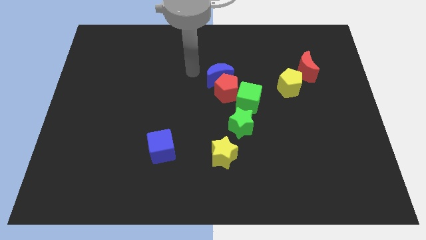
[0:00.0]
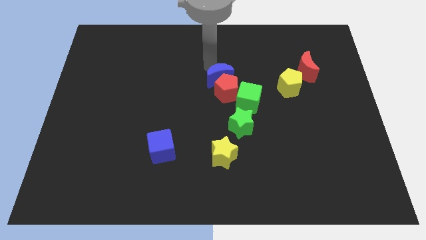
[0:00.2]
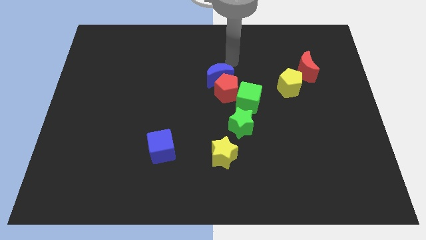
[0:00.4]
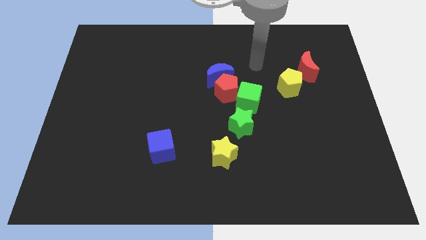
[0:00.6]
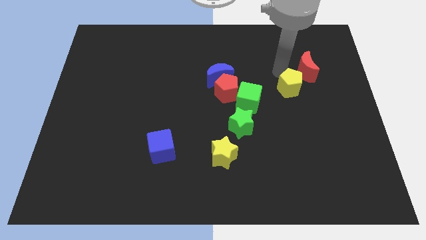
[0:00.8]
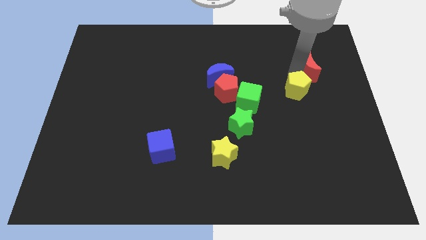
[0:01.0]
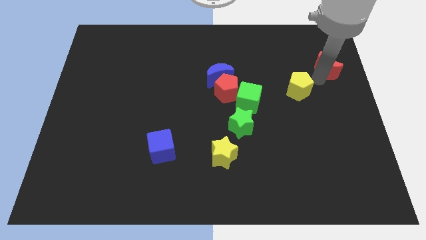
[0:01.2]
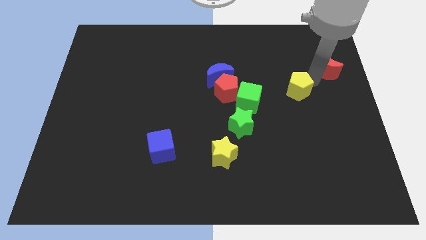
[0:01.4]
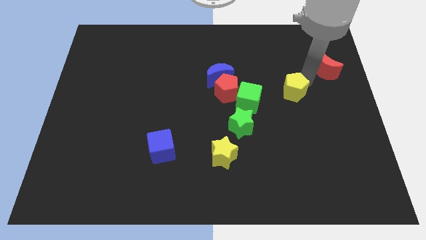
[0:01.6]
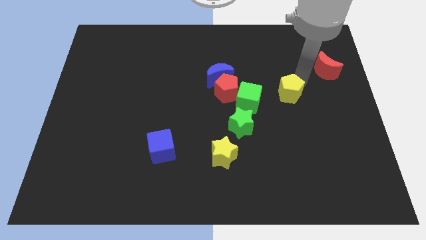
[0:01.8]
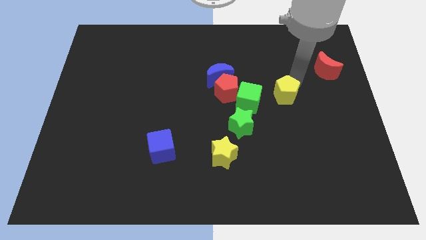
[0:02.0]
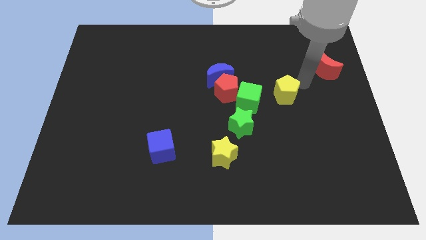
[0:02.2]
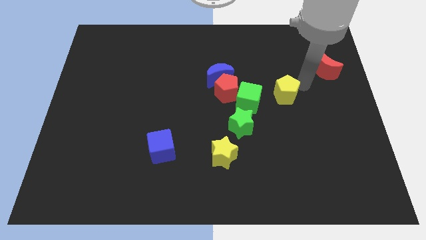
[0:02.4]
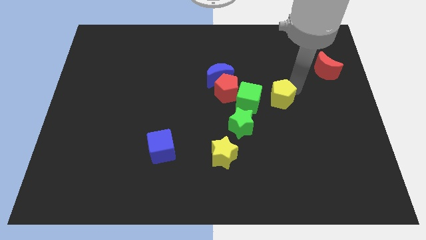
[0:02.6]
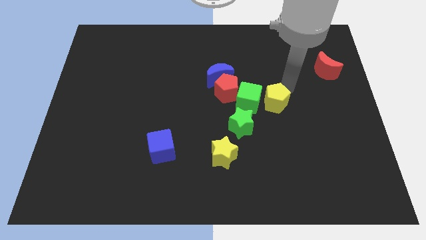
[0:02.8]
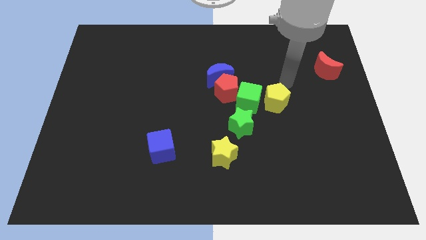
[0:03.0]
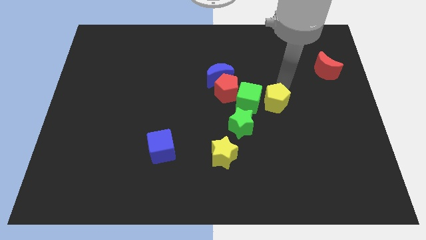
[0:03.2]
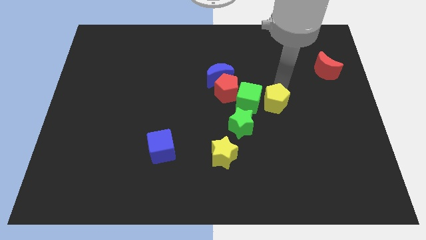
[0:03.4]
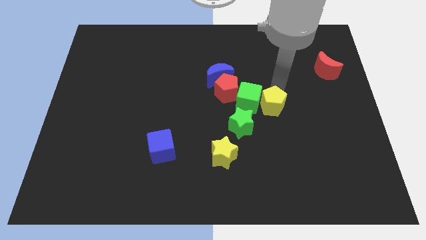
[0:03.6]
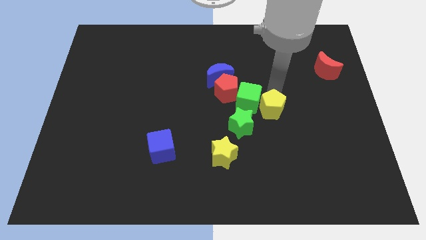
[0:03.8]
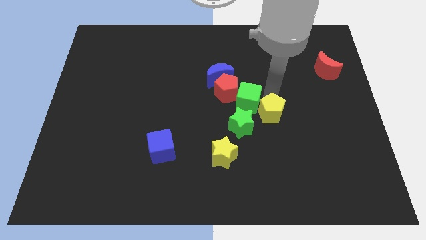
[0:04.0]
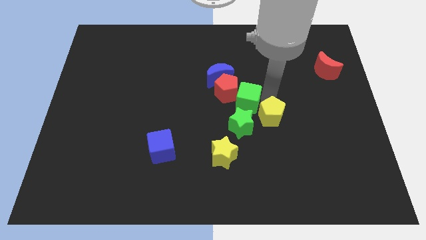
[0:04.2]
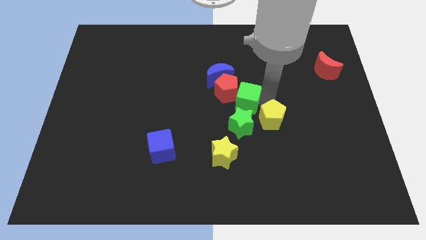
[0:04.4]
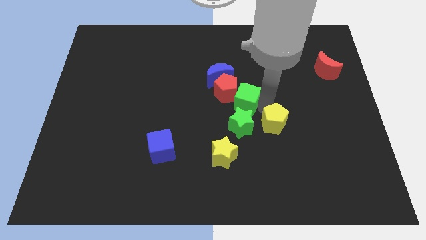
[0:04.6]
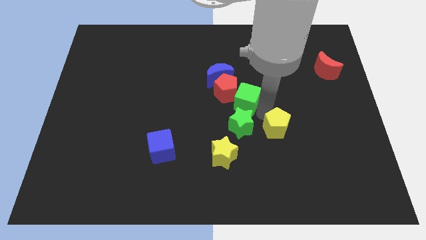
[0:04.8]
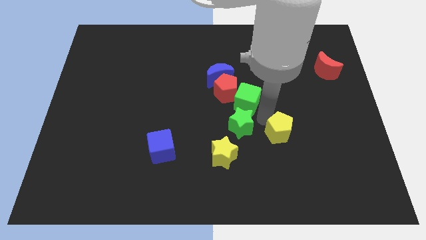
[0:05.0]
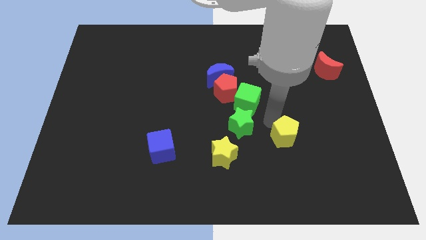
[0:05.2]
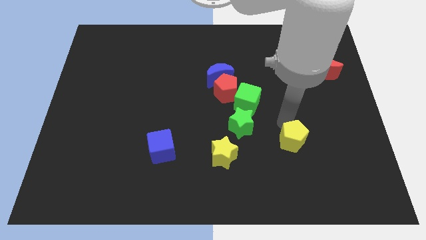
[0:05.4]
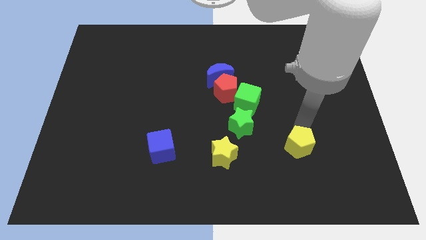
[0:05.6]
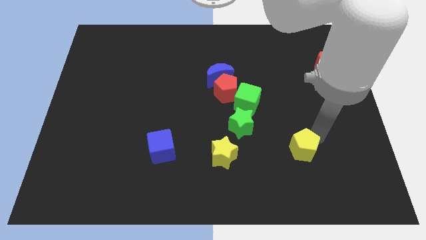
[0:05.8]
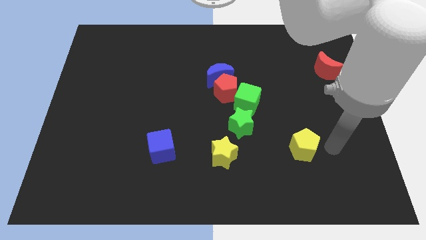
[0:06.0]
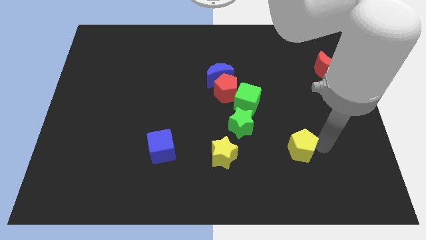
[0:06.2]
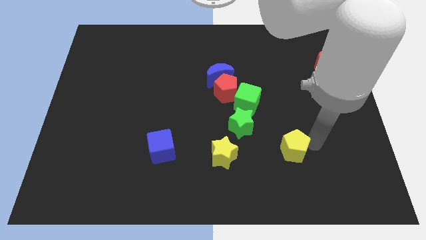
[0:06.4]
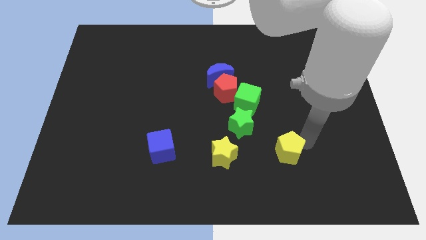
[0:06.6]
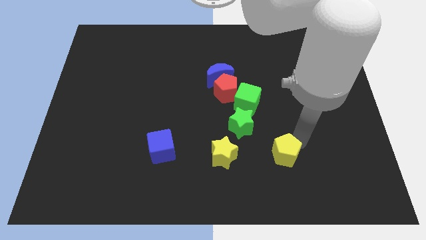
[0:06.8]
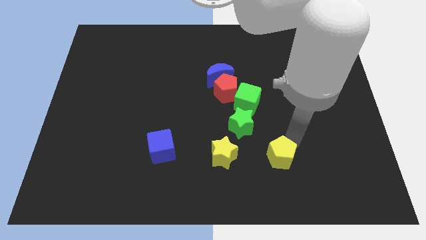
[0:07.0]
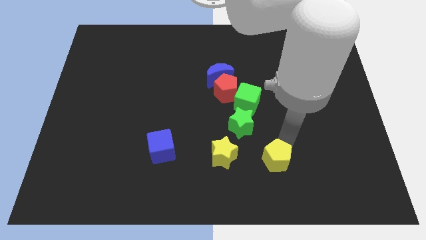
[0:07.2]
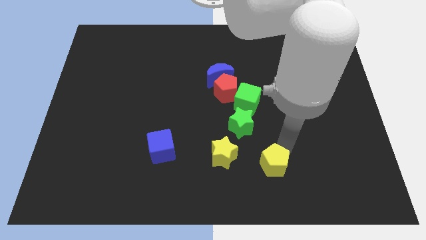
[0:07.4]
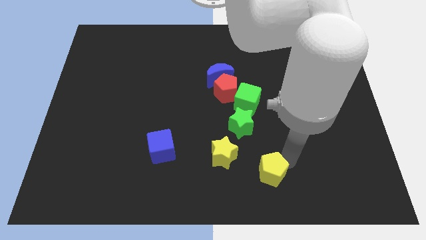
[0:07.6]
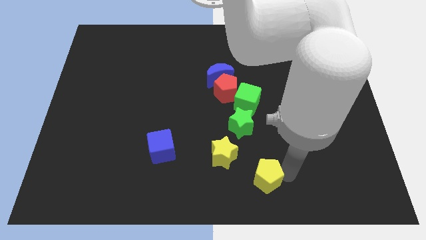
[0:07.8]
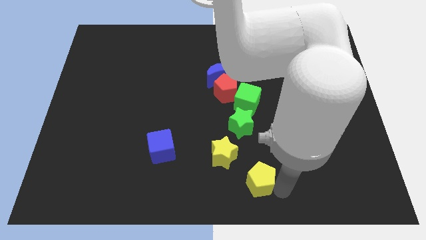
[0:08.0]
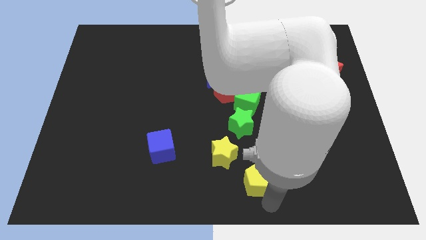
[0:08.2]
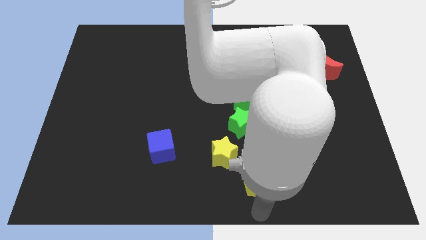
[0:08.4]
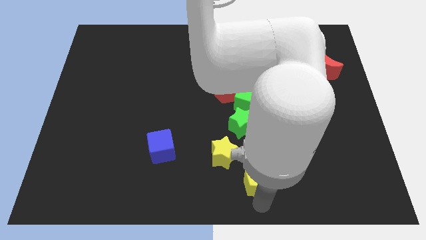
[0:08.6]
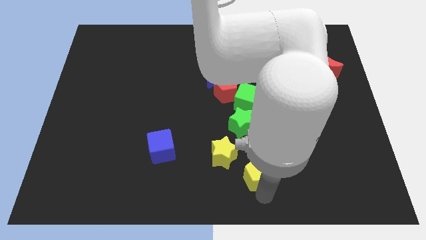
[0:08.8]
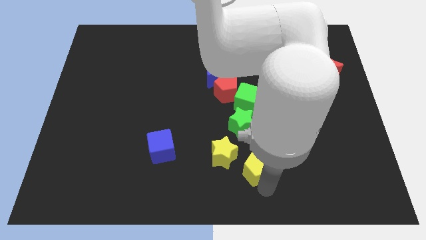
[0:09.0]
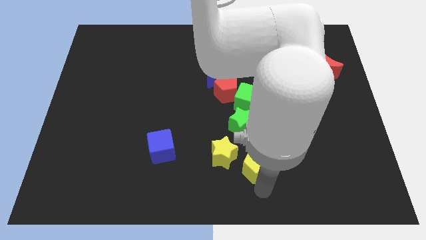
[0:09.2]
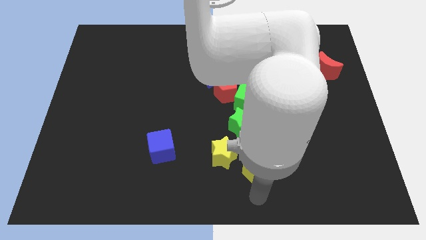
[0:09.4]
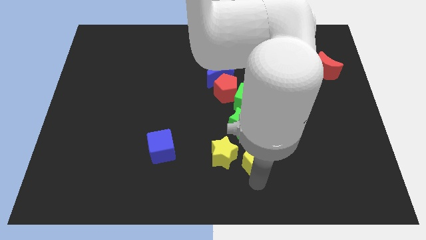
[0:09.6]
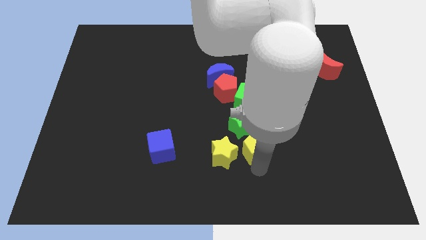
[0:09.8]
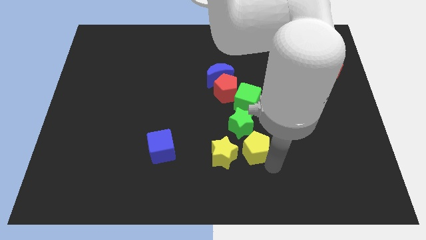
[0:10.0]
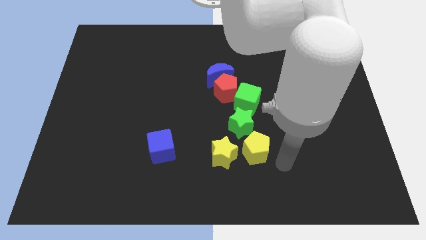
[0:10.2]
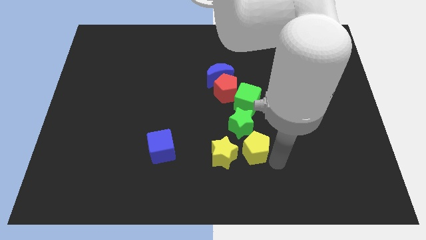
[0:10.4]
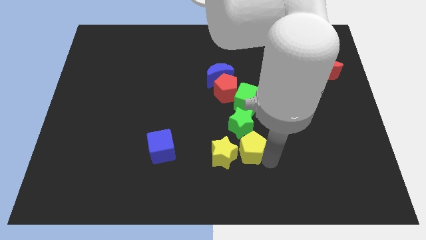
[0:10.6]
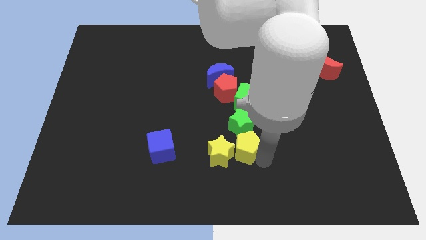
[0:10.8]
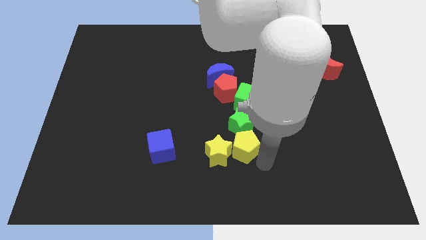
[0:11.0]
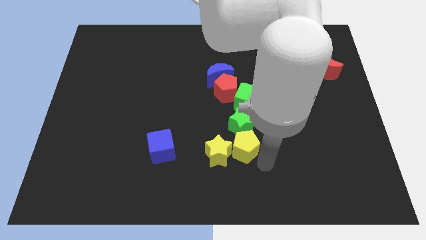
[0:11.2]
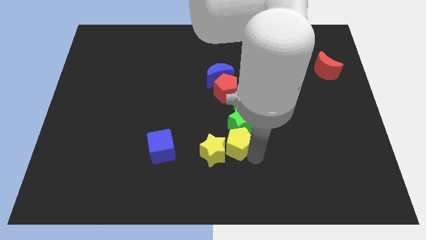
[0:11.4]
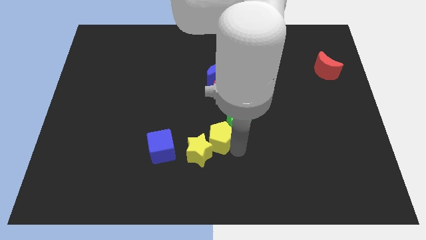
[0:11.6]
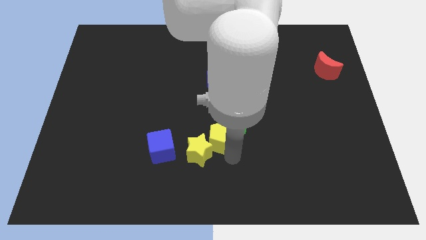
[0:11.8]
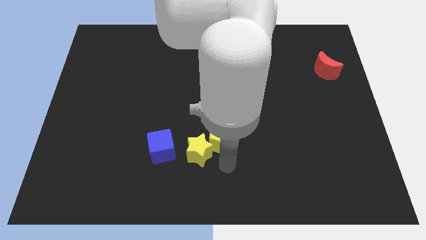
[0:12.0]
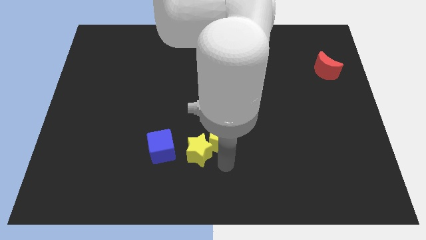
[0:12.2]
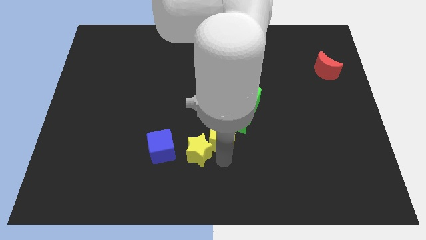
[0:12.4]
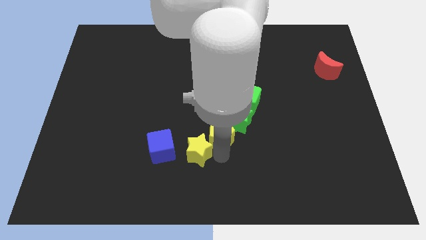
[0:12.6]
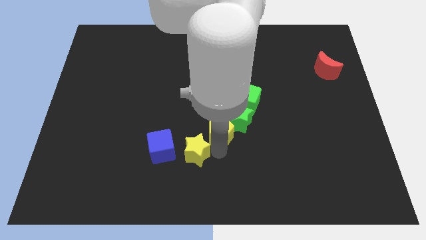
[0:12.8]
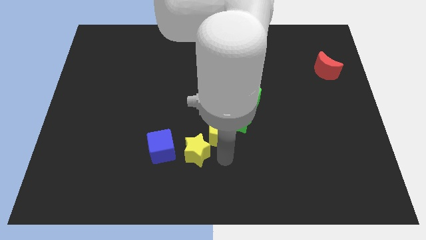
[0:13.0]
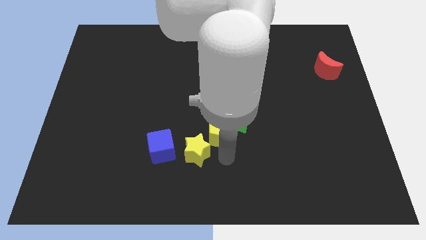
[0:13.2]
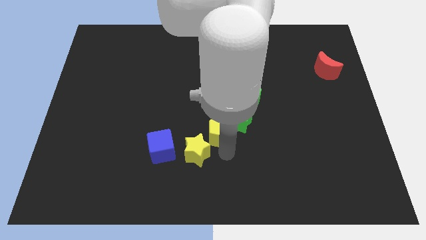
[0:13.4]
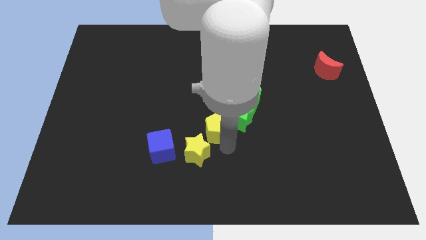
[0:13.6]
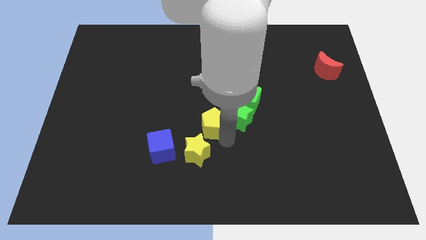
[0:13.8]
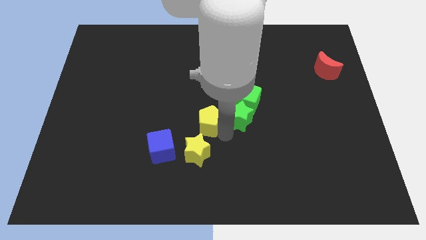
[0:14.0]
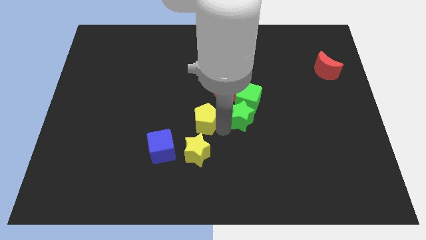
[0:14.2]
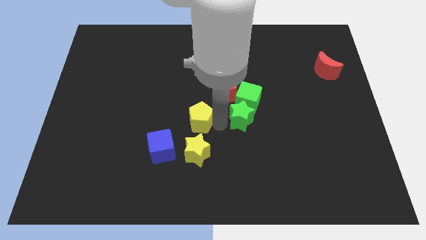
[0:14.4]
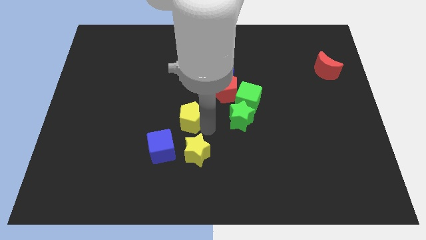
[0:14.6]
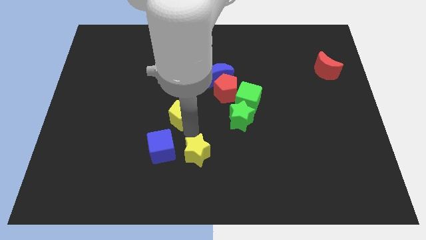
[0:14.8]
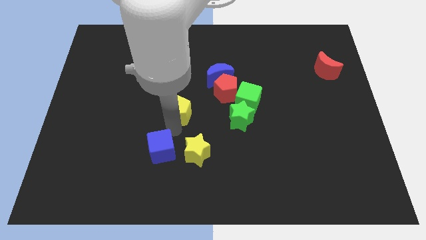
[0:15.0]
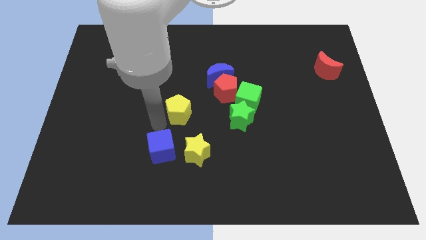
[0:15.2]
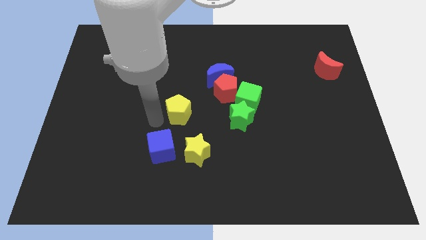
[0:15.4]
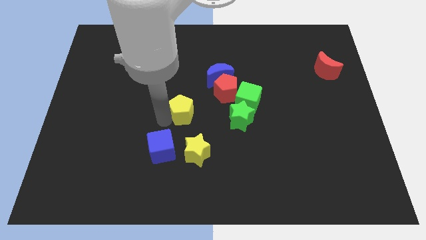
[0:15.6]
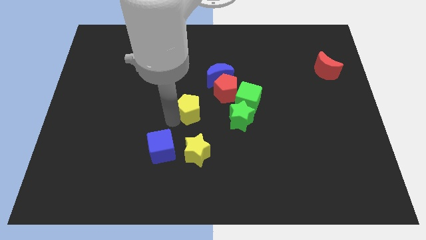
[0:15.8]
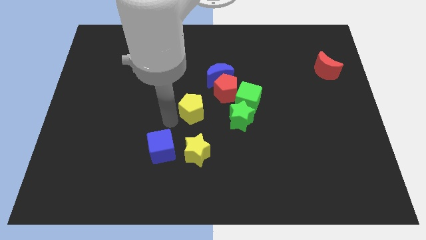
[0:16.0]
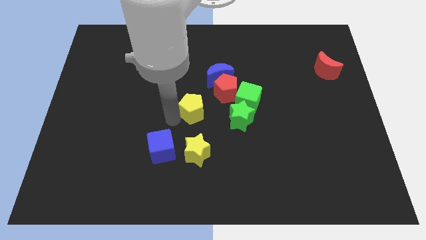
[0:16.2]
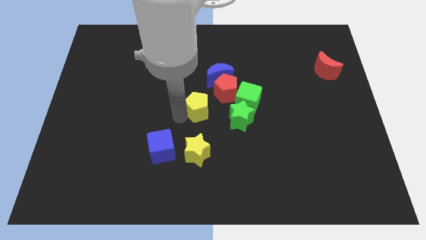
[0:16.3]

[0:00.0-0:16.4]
move the yellow pentagon diagonally up and to the left of the green star
